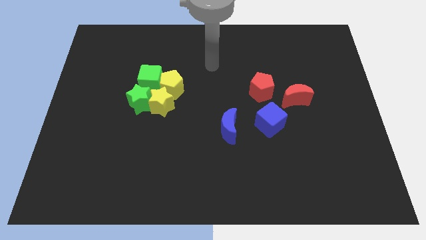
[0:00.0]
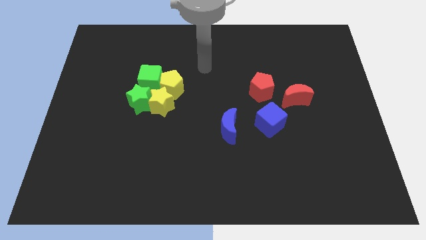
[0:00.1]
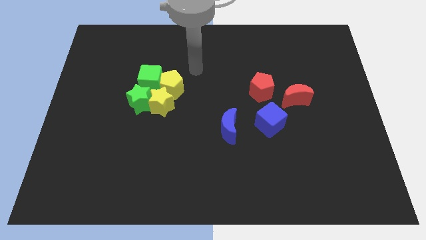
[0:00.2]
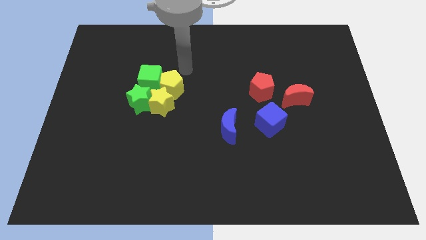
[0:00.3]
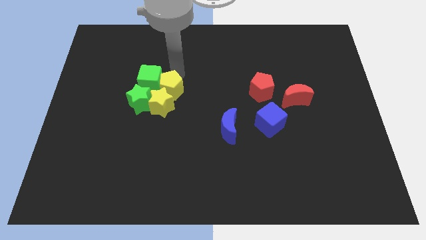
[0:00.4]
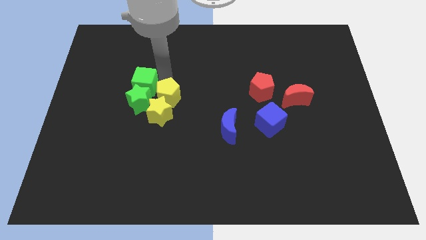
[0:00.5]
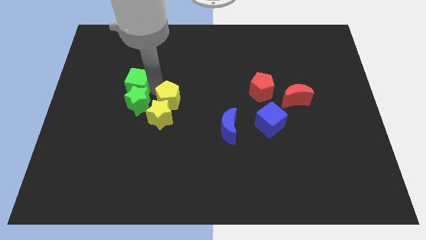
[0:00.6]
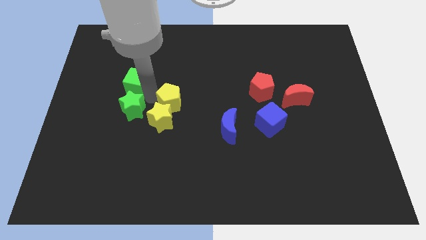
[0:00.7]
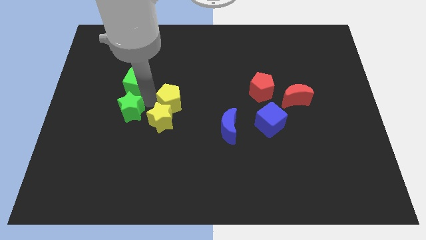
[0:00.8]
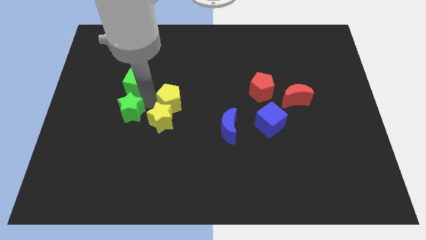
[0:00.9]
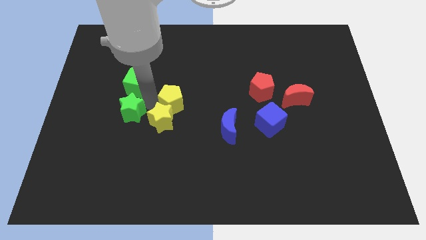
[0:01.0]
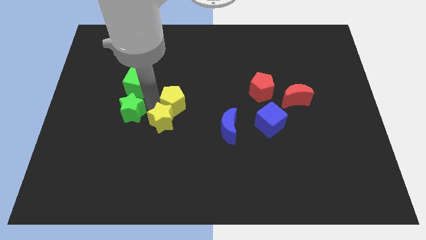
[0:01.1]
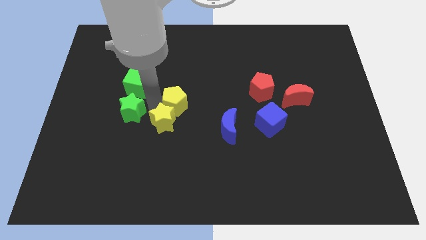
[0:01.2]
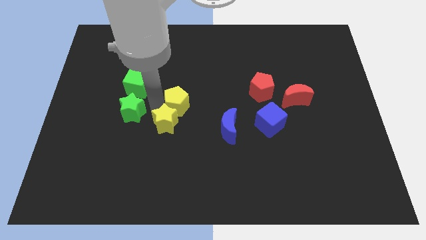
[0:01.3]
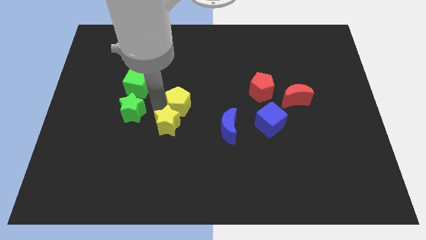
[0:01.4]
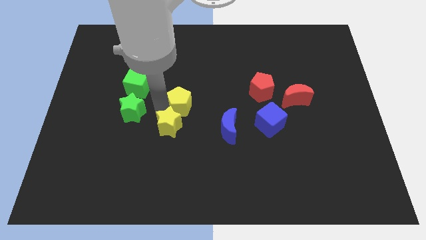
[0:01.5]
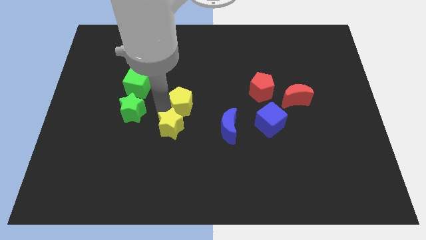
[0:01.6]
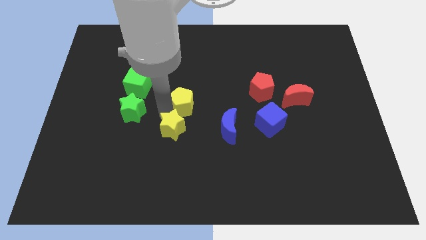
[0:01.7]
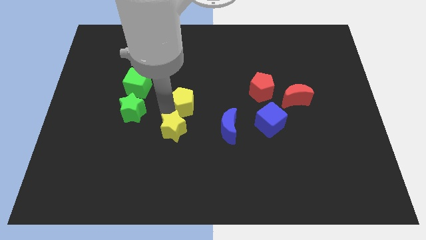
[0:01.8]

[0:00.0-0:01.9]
move the yellow star away from the green star, yellow pentagon, and green cube

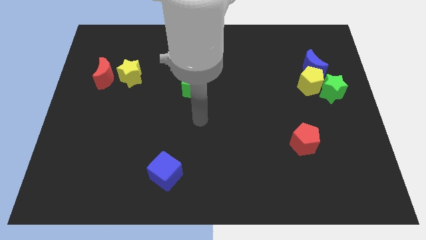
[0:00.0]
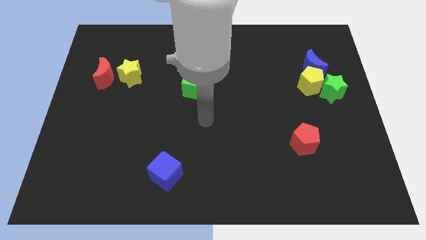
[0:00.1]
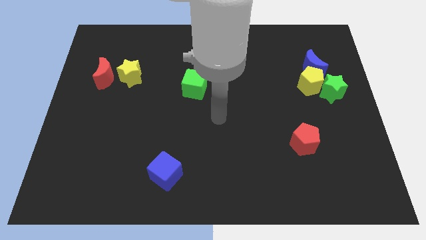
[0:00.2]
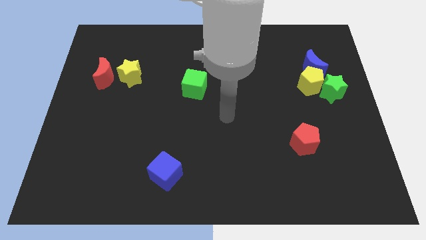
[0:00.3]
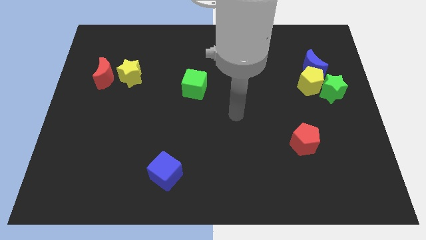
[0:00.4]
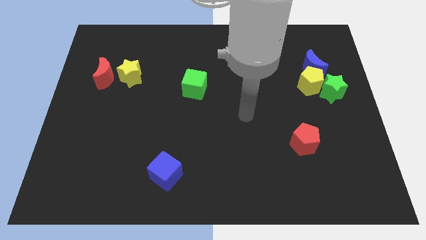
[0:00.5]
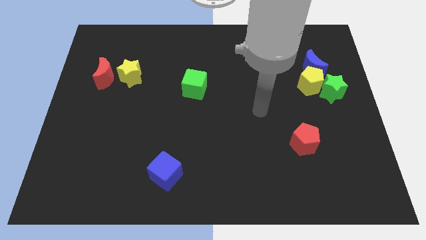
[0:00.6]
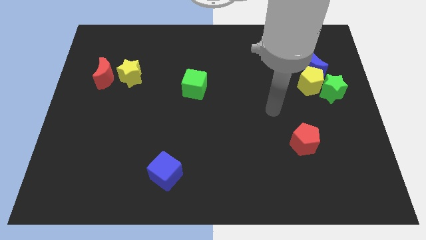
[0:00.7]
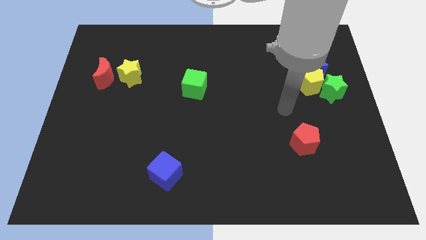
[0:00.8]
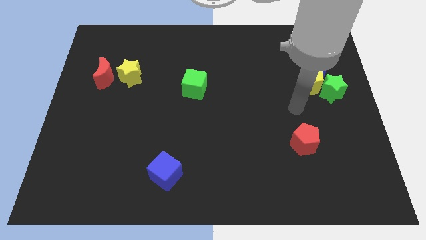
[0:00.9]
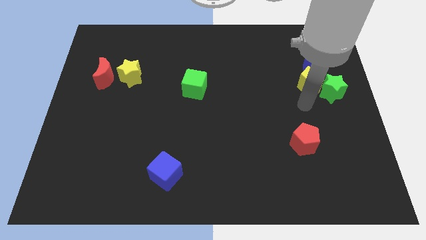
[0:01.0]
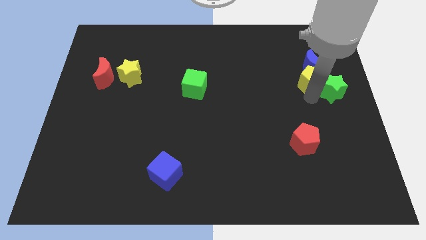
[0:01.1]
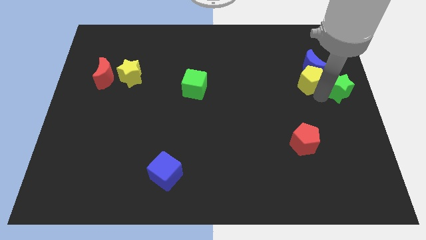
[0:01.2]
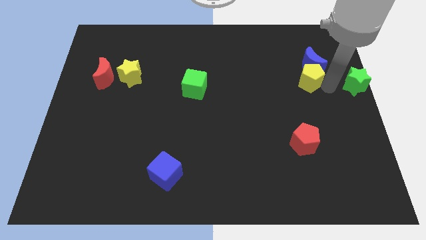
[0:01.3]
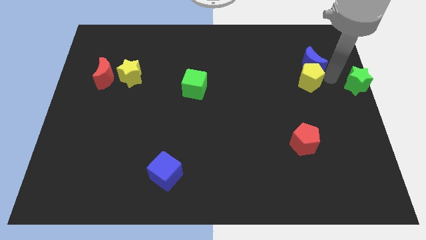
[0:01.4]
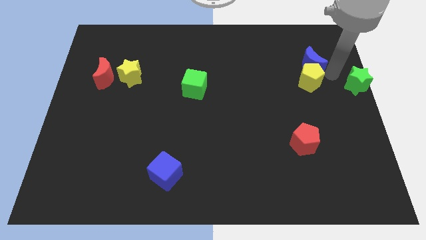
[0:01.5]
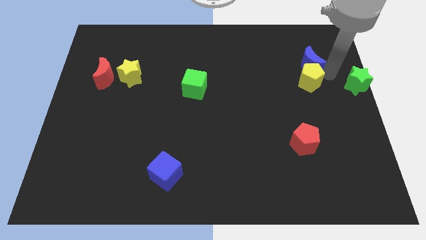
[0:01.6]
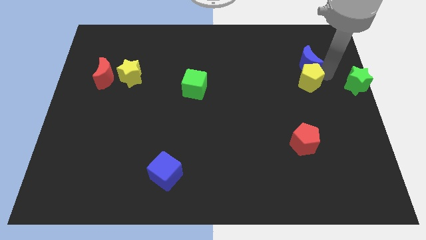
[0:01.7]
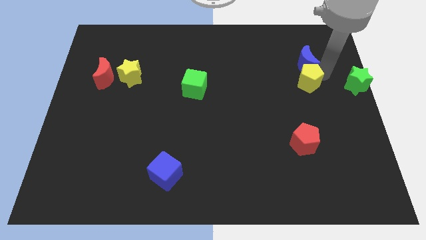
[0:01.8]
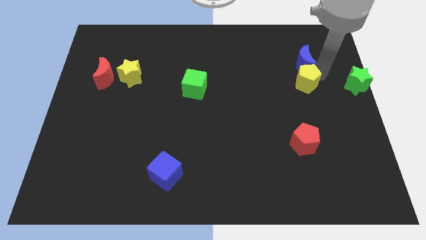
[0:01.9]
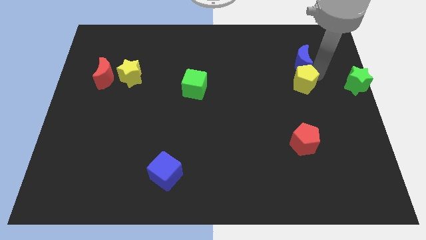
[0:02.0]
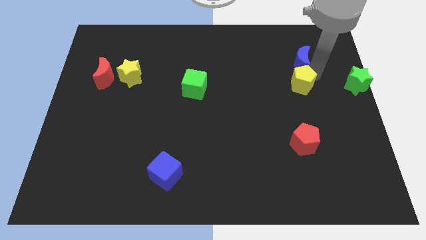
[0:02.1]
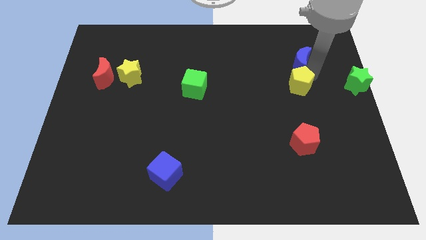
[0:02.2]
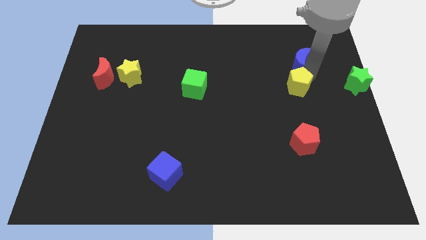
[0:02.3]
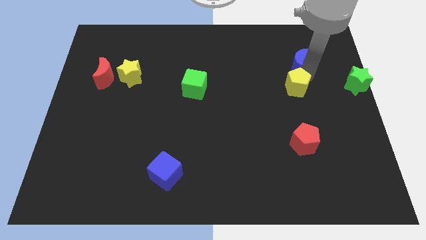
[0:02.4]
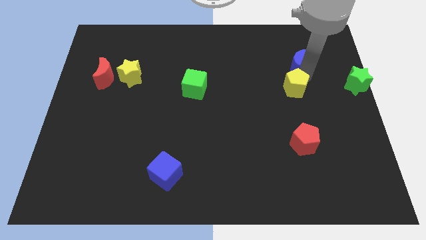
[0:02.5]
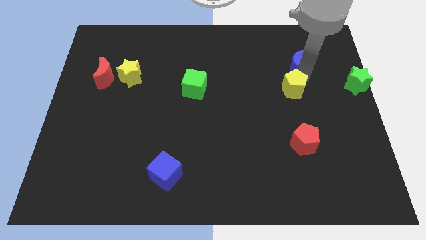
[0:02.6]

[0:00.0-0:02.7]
separate the yellow pentagon from the blue moon and green star

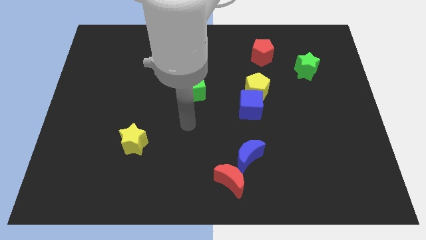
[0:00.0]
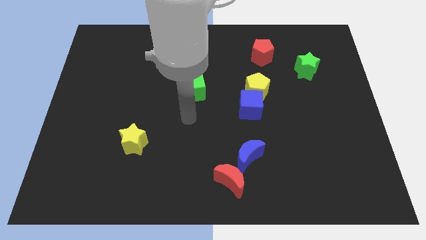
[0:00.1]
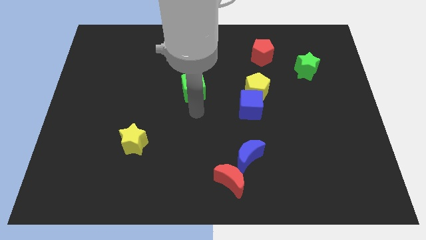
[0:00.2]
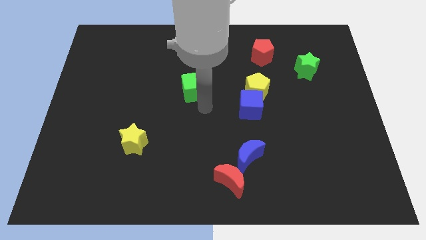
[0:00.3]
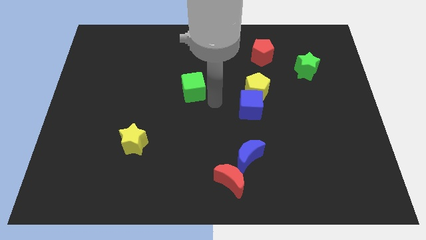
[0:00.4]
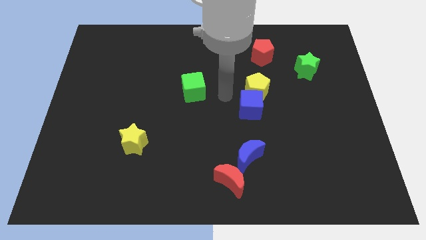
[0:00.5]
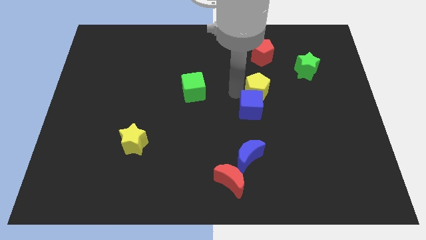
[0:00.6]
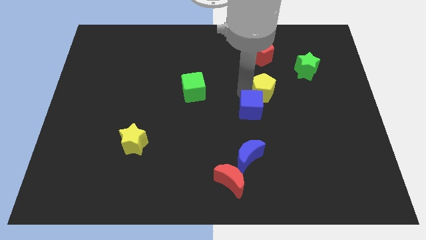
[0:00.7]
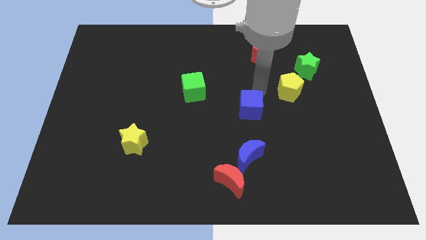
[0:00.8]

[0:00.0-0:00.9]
pull the blue cube apart from the yellow pentagon

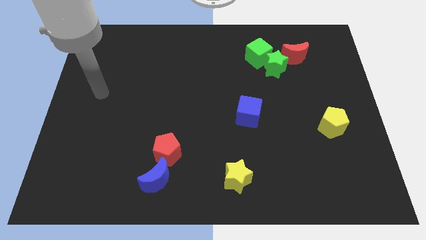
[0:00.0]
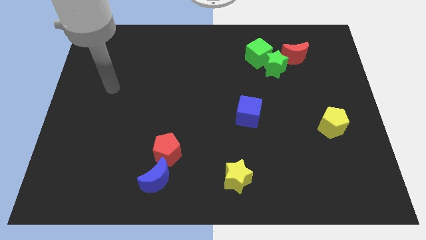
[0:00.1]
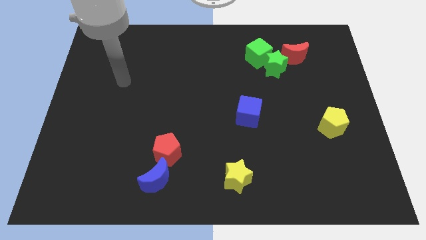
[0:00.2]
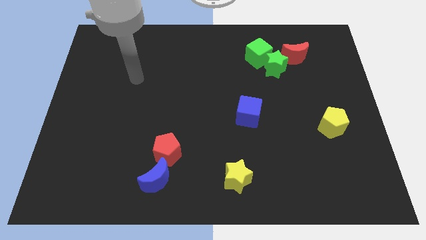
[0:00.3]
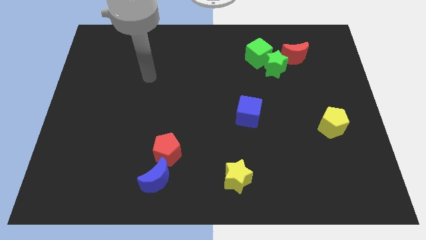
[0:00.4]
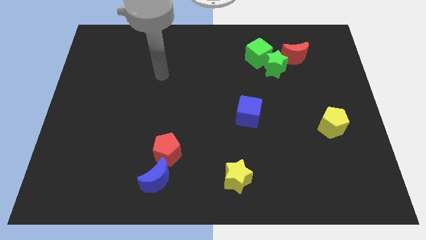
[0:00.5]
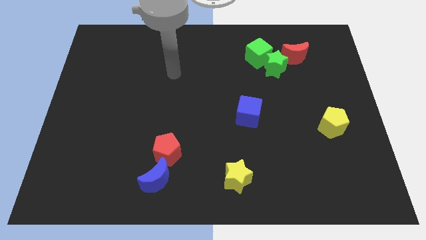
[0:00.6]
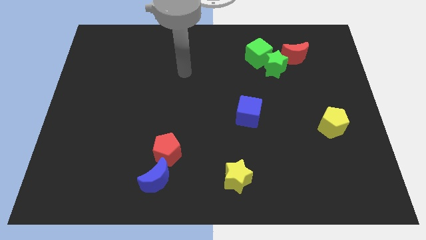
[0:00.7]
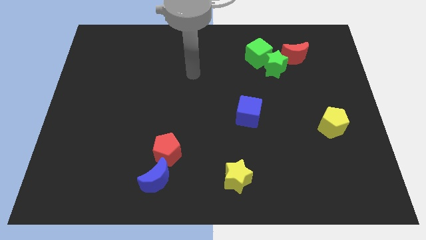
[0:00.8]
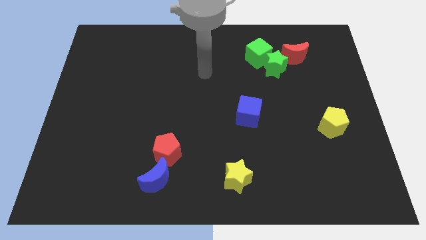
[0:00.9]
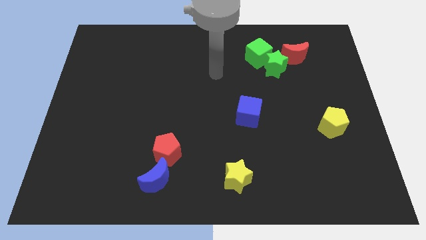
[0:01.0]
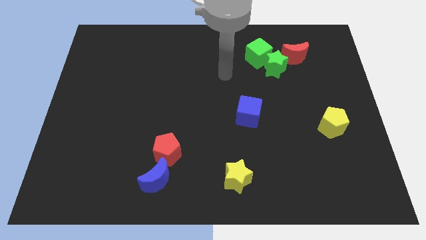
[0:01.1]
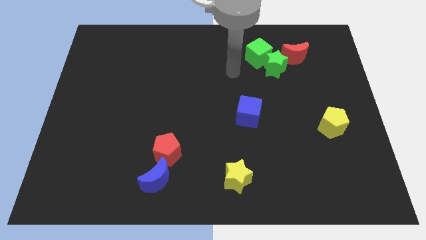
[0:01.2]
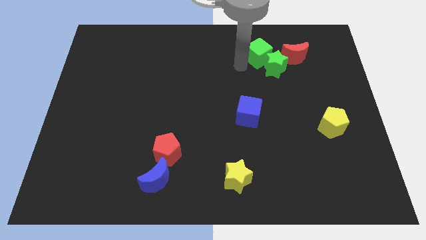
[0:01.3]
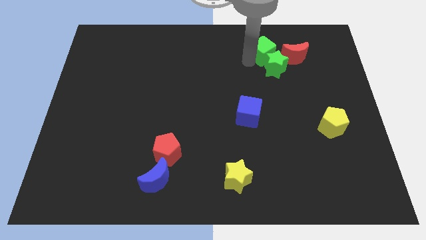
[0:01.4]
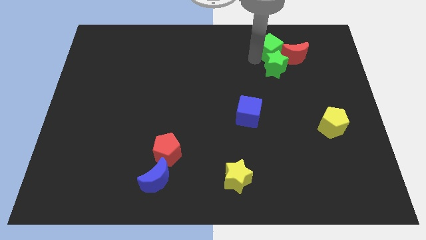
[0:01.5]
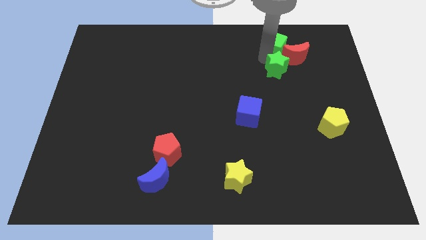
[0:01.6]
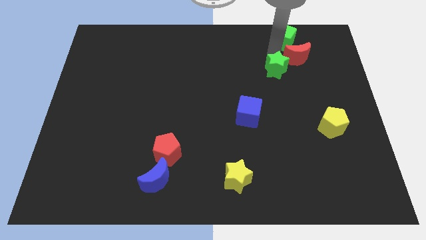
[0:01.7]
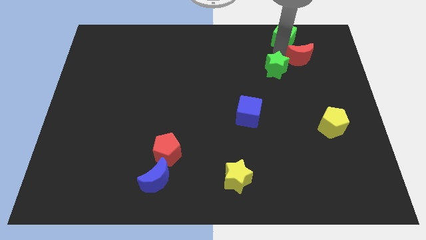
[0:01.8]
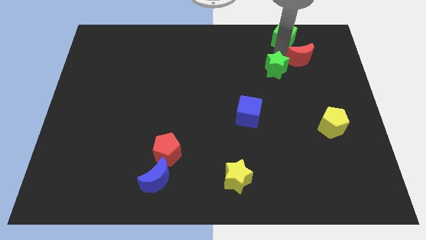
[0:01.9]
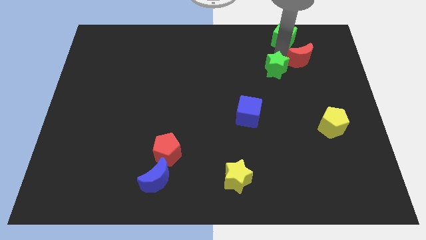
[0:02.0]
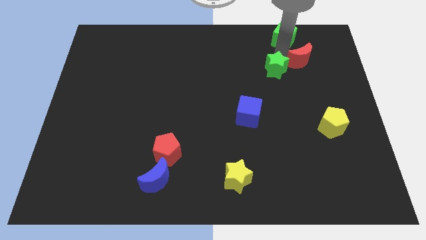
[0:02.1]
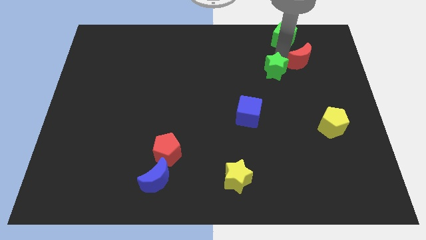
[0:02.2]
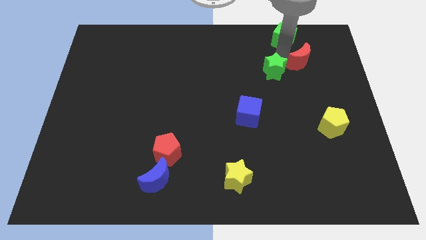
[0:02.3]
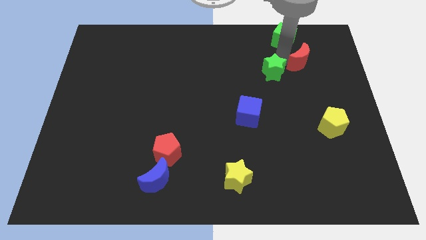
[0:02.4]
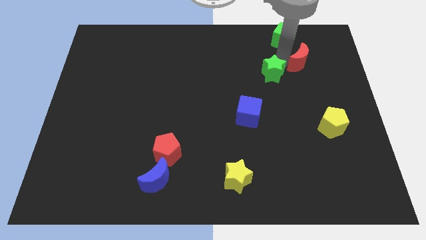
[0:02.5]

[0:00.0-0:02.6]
separate the green star from the green cube and red moon

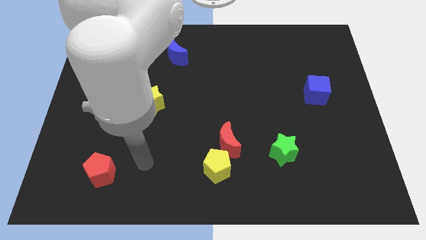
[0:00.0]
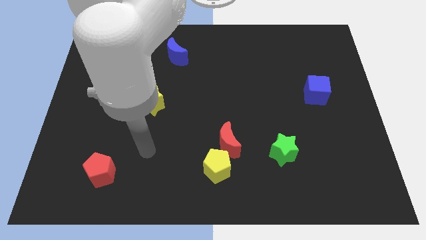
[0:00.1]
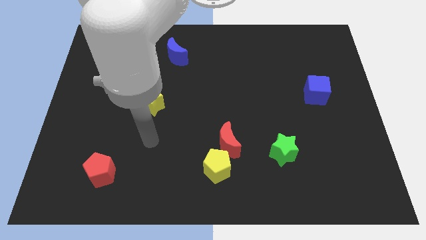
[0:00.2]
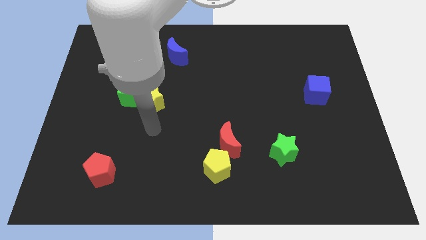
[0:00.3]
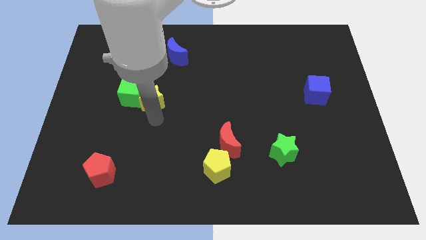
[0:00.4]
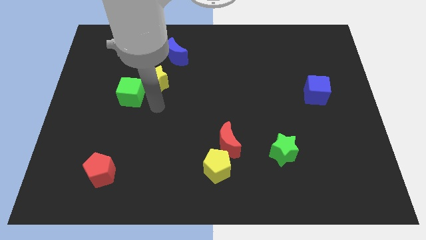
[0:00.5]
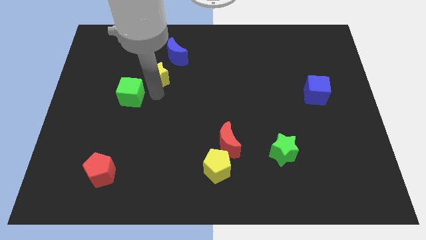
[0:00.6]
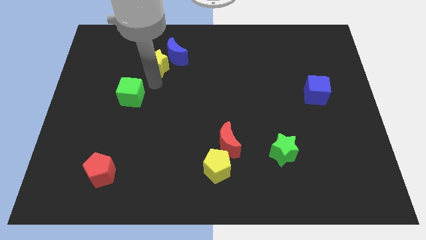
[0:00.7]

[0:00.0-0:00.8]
separate the green cube from the yellow star

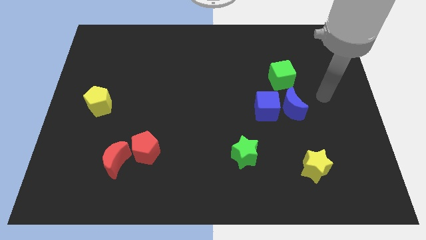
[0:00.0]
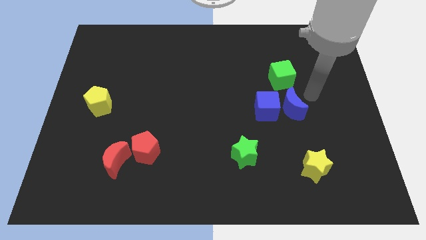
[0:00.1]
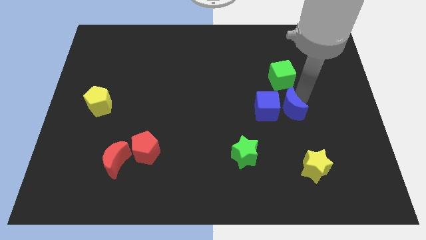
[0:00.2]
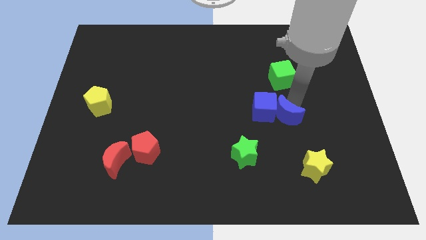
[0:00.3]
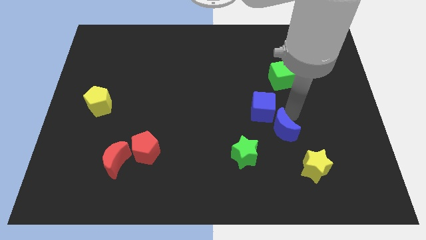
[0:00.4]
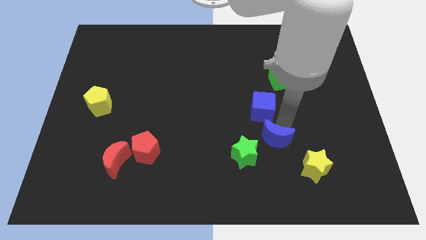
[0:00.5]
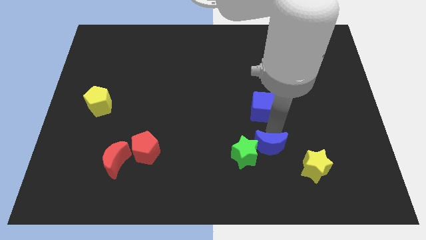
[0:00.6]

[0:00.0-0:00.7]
separate the blue cube from the blue moon
